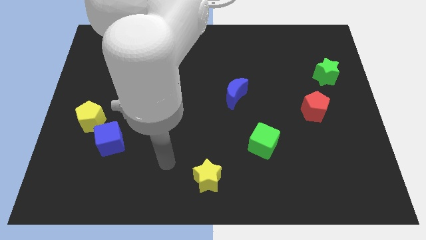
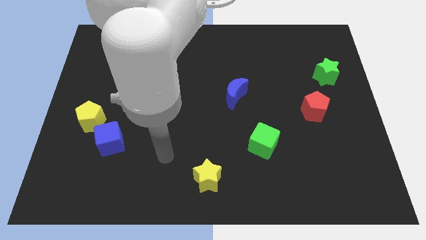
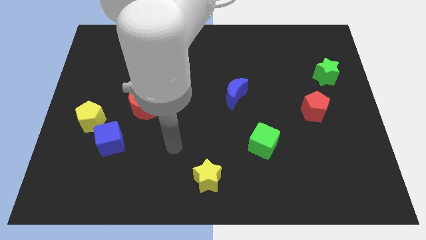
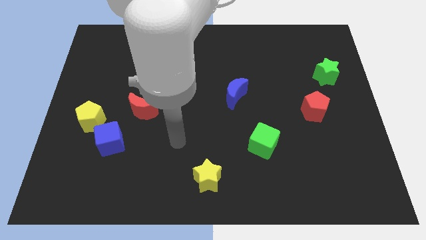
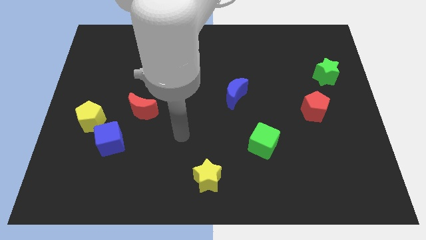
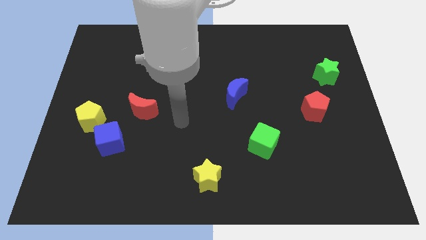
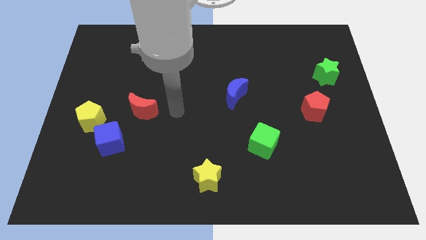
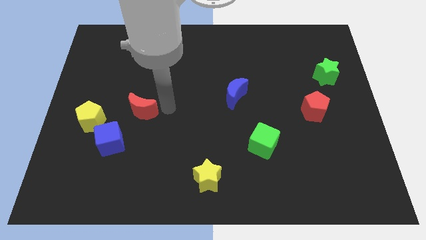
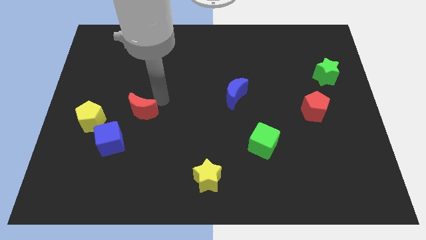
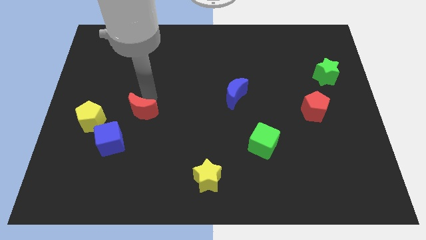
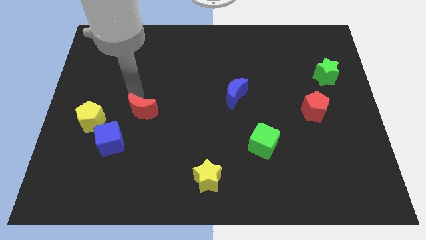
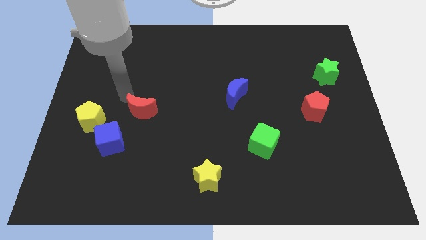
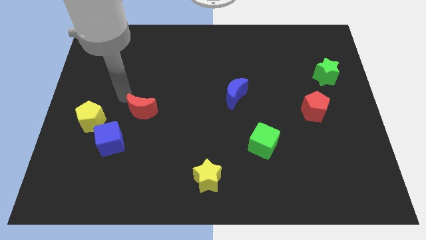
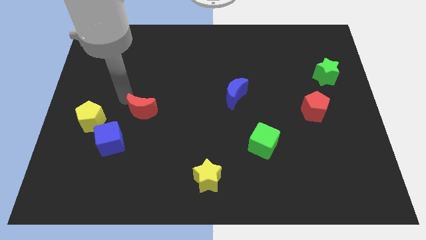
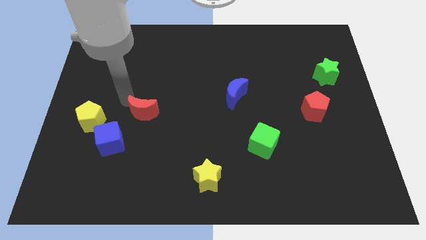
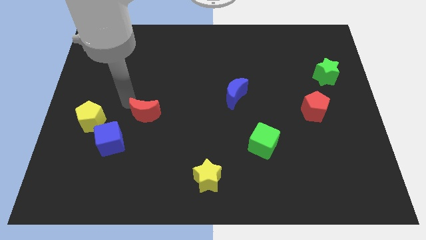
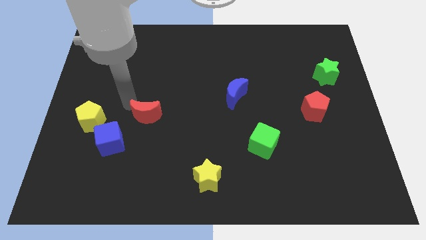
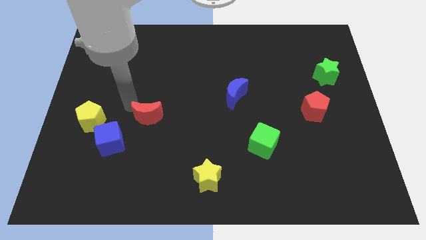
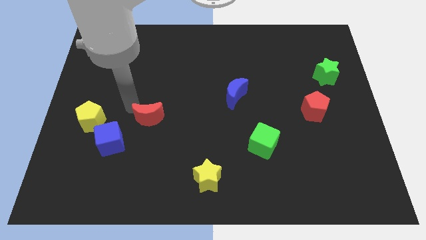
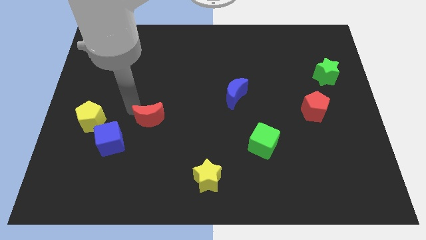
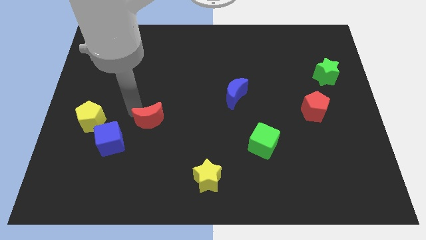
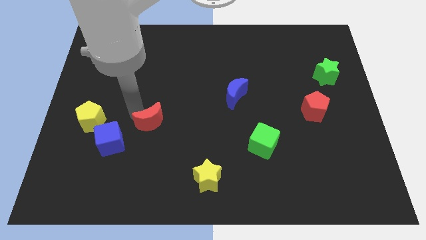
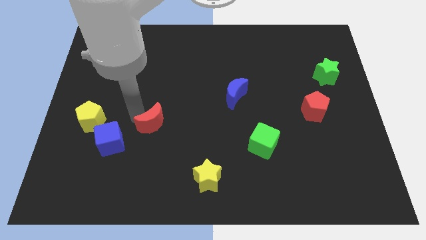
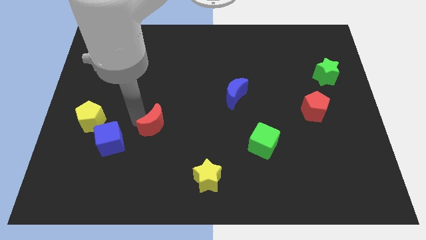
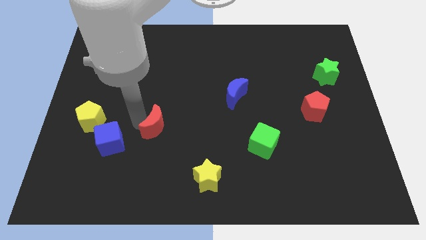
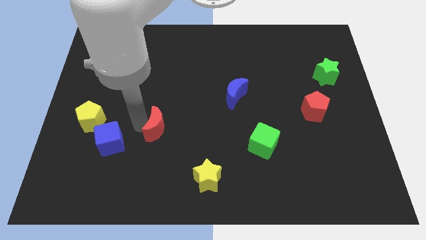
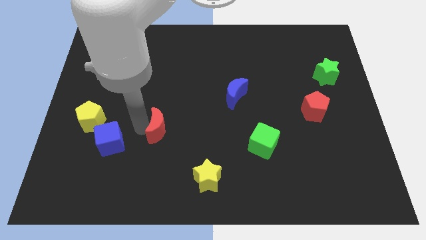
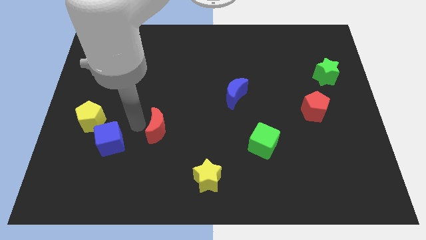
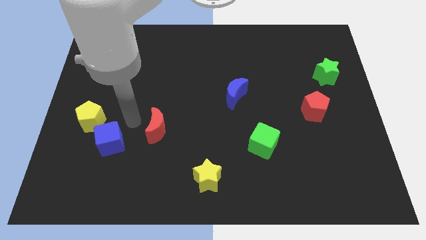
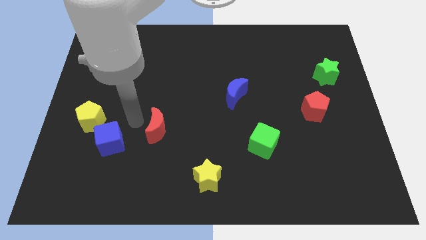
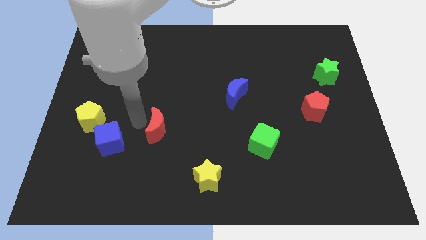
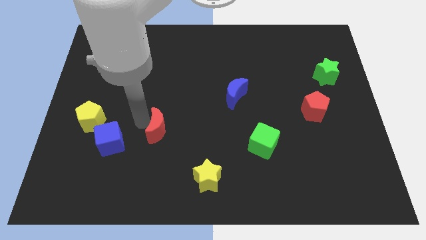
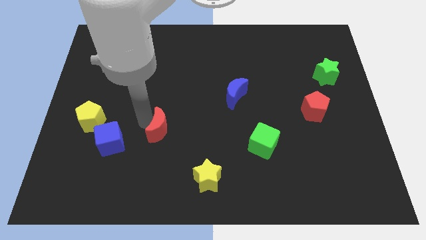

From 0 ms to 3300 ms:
slide the red moon down and then to the right somewhat

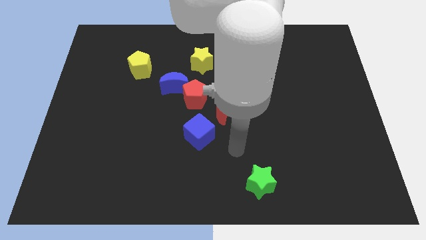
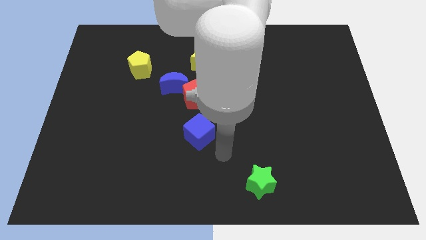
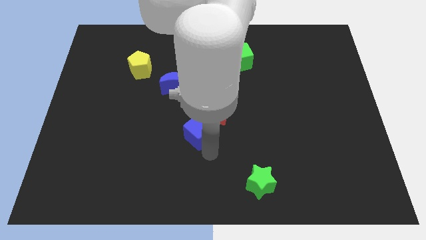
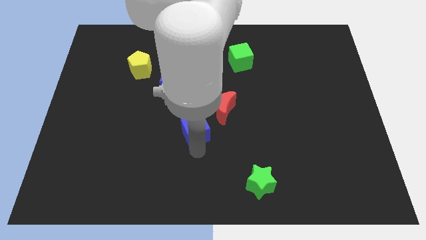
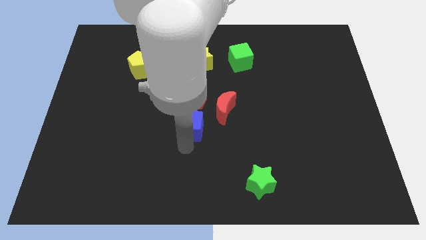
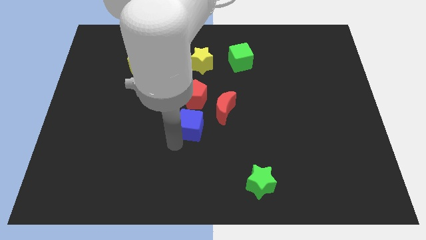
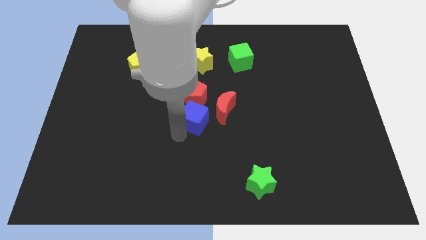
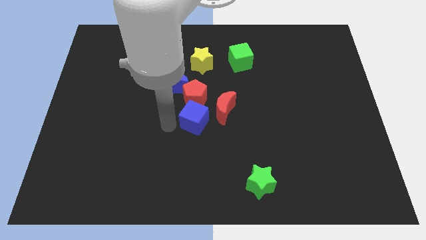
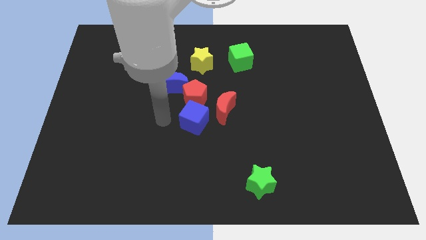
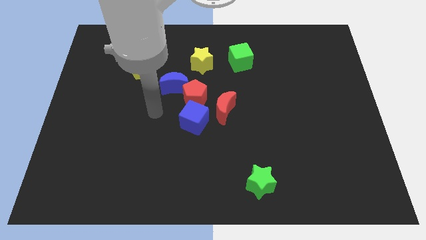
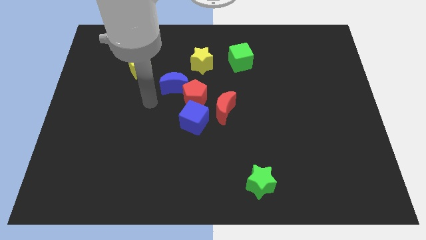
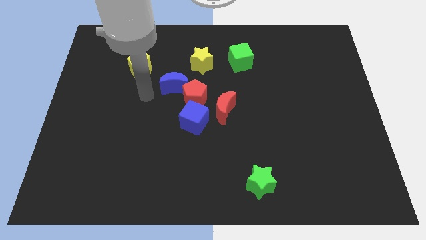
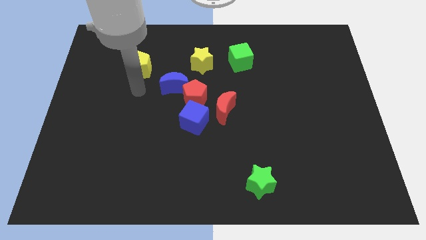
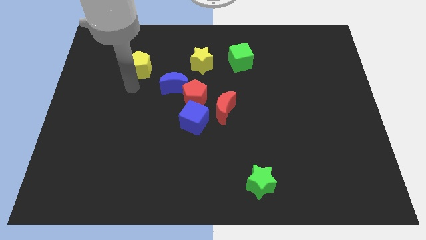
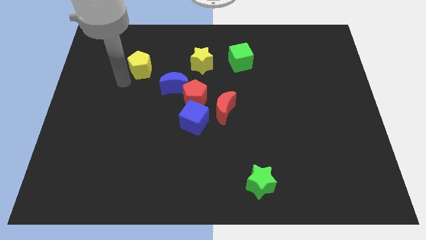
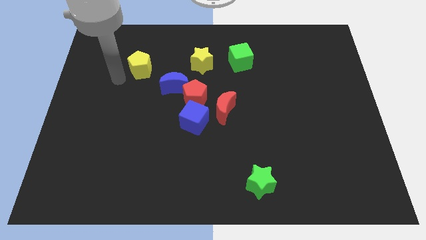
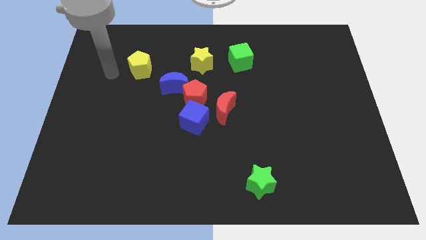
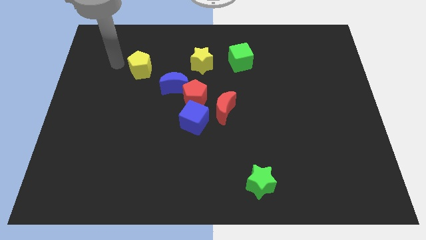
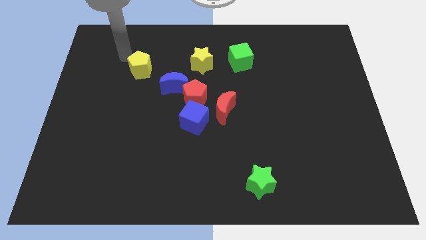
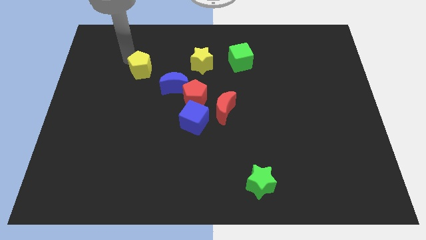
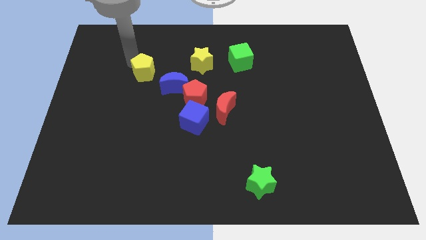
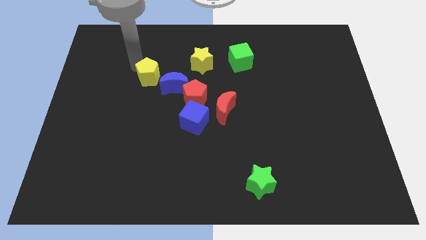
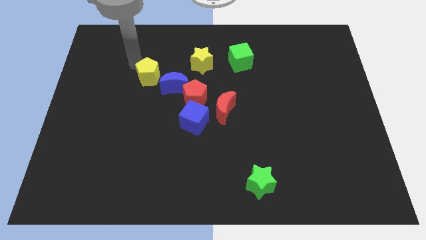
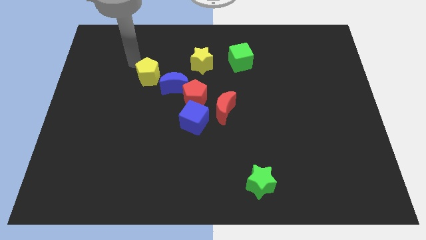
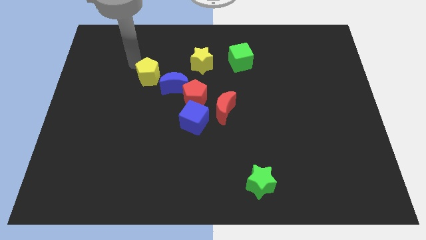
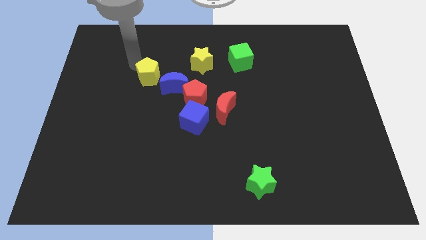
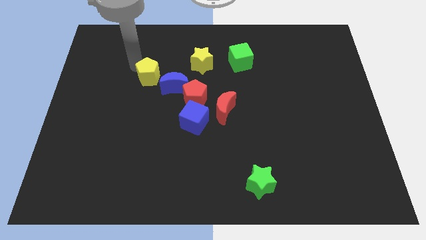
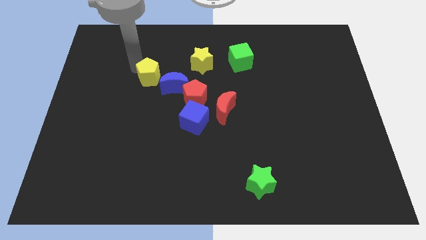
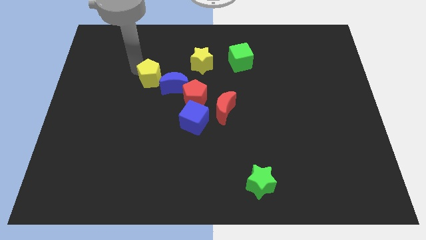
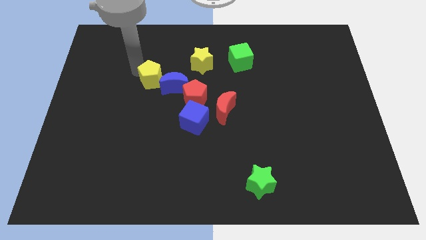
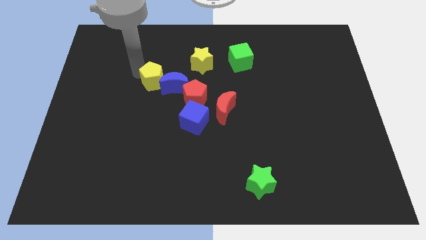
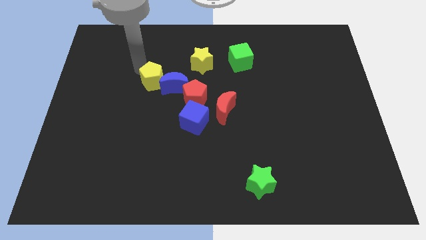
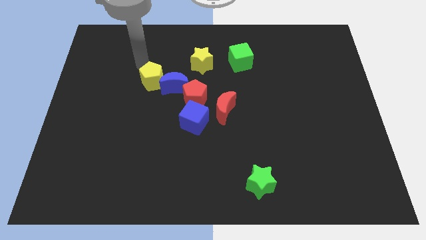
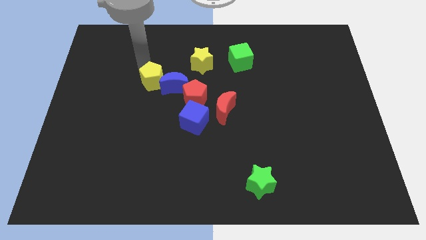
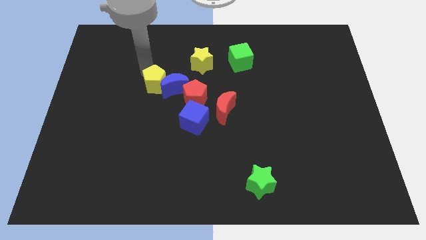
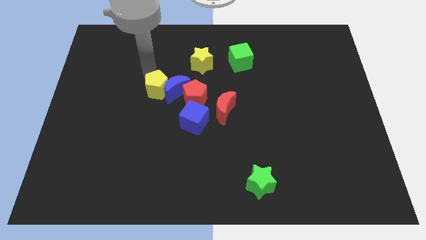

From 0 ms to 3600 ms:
slightly slide the yellow pentagon downwards and to the right diagonally
